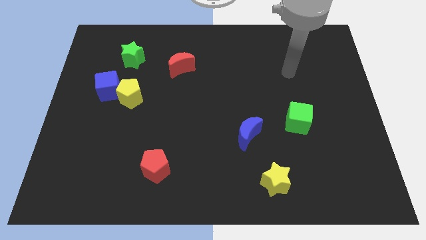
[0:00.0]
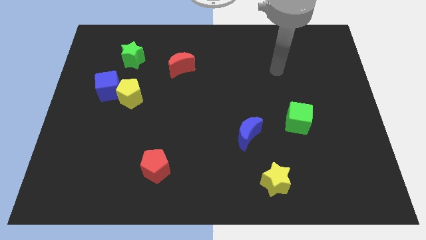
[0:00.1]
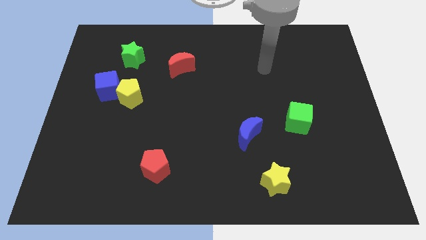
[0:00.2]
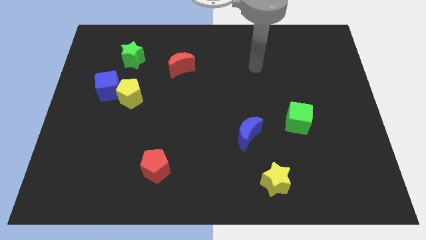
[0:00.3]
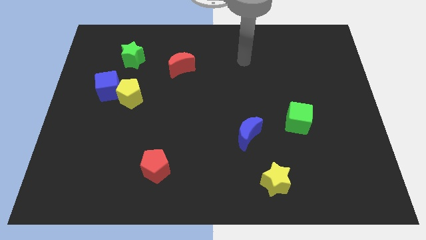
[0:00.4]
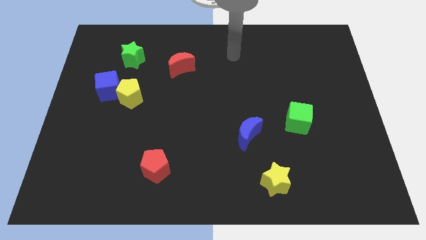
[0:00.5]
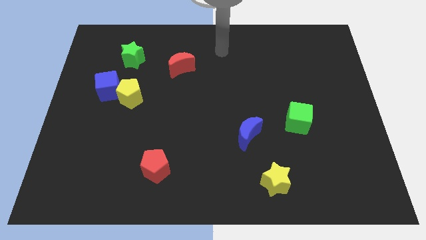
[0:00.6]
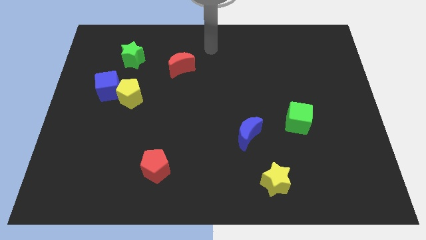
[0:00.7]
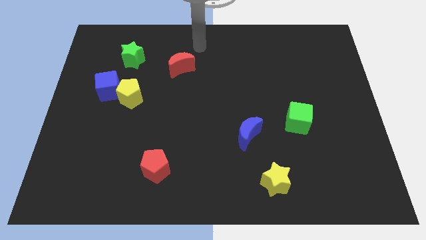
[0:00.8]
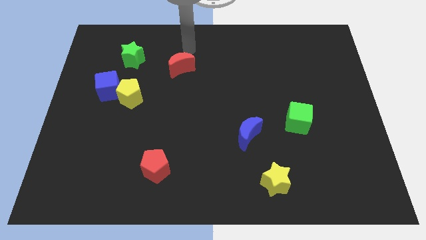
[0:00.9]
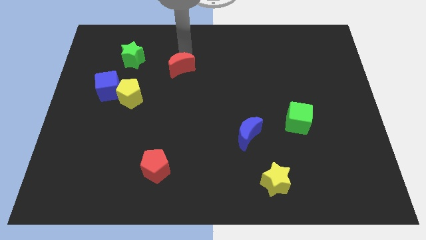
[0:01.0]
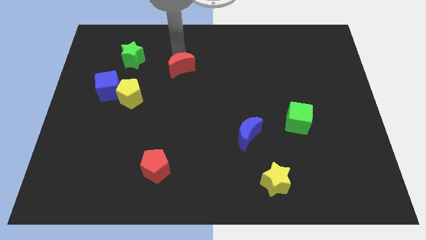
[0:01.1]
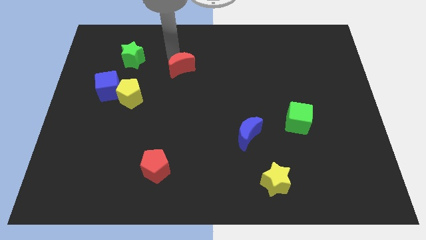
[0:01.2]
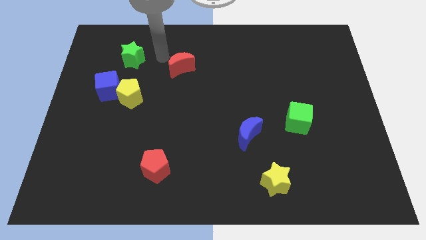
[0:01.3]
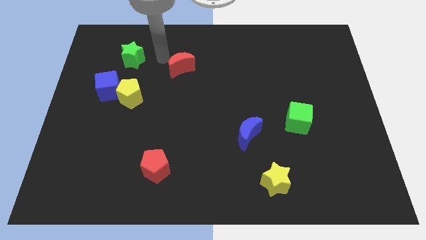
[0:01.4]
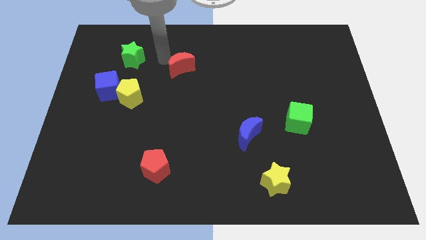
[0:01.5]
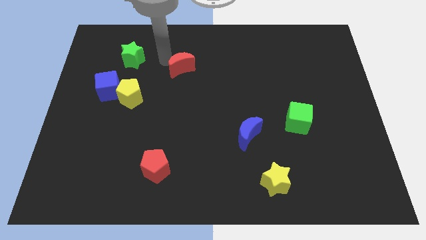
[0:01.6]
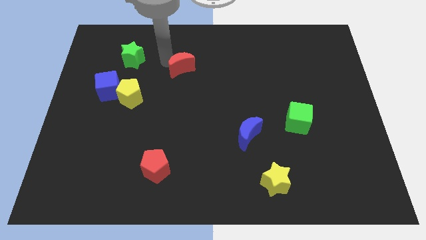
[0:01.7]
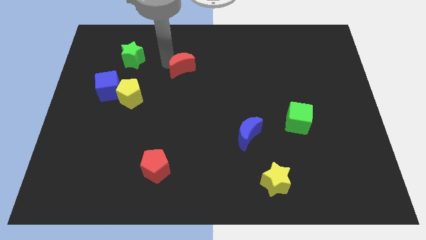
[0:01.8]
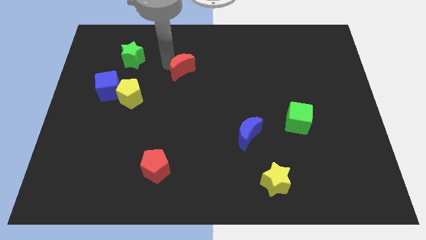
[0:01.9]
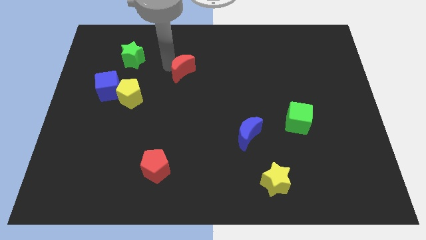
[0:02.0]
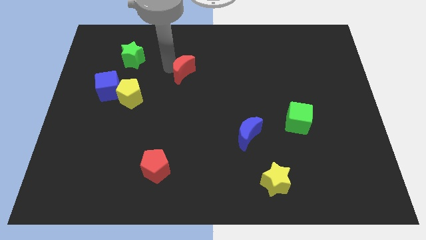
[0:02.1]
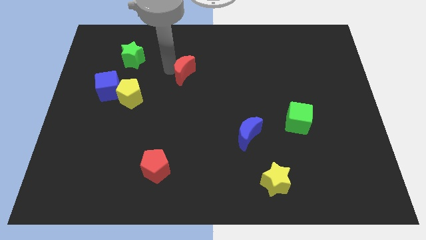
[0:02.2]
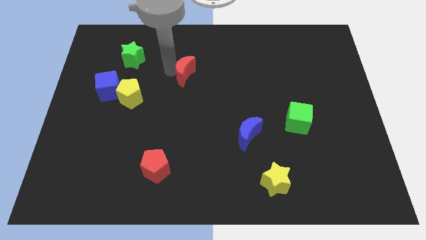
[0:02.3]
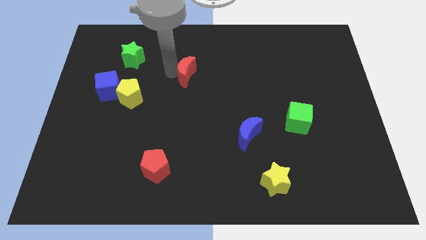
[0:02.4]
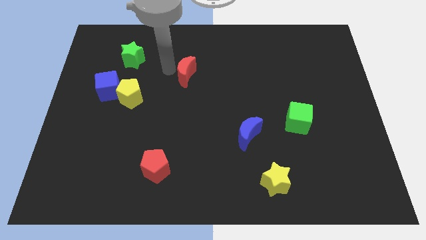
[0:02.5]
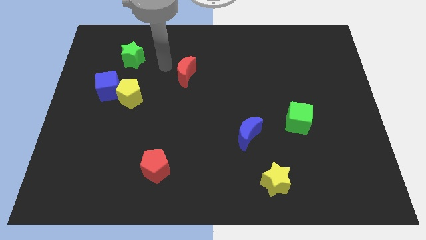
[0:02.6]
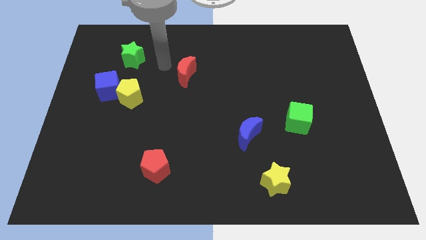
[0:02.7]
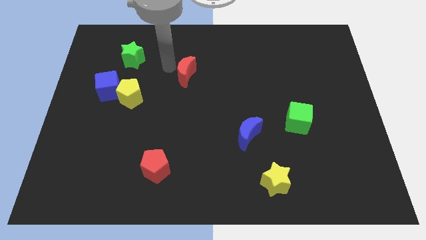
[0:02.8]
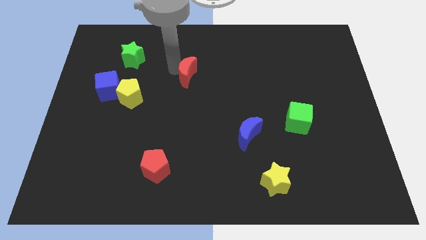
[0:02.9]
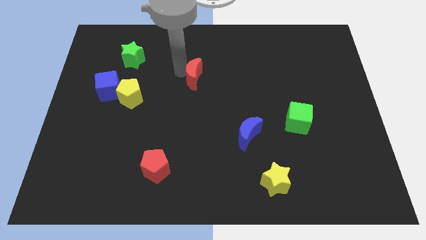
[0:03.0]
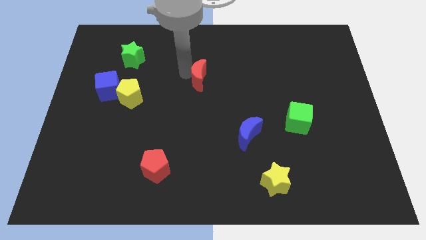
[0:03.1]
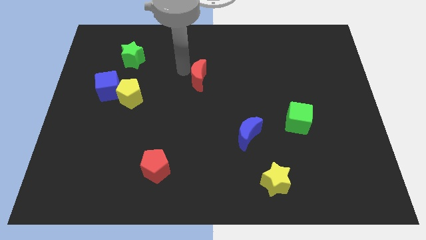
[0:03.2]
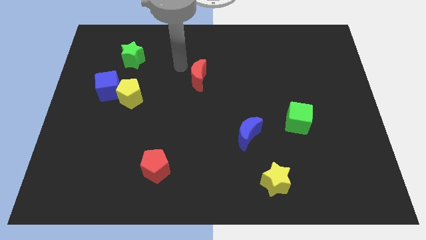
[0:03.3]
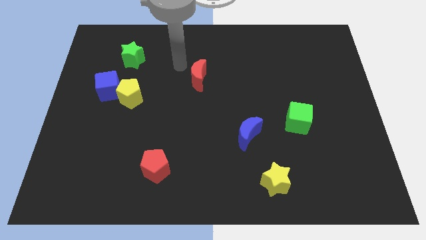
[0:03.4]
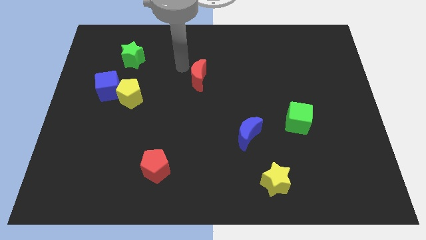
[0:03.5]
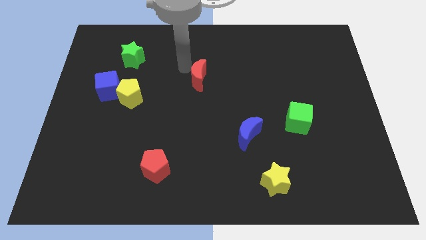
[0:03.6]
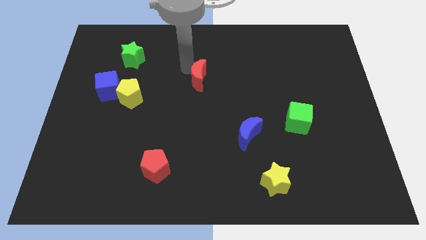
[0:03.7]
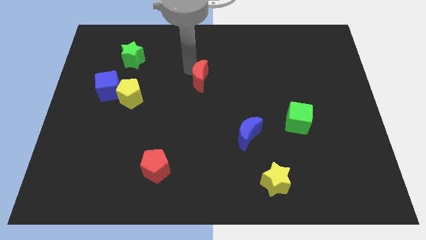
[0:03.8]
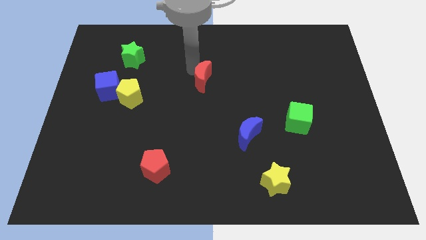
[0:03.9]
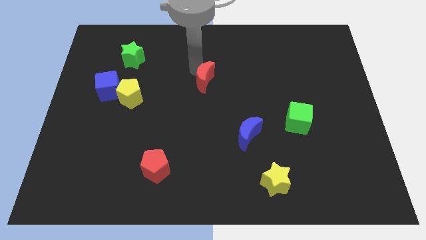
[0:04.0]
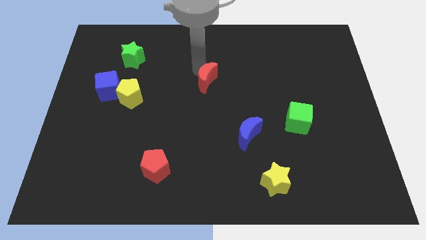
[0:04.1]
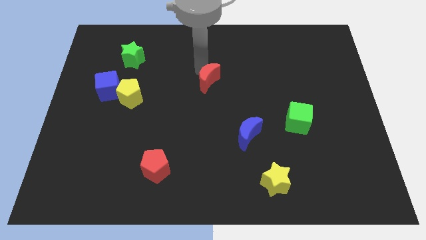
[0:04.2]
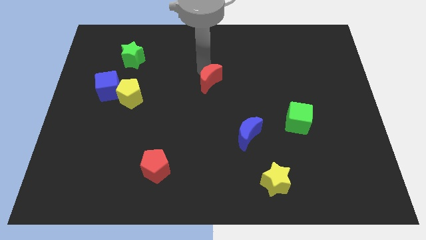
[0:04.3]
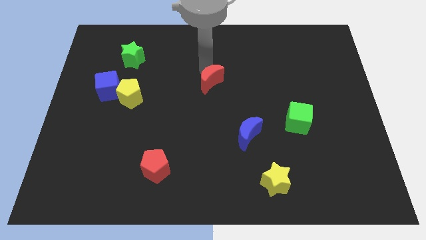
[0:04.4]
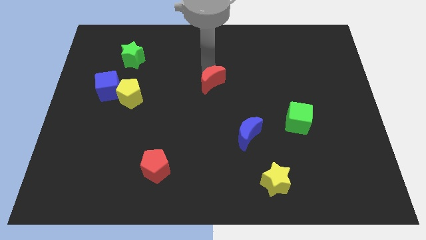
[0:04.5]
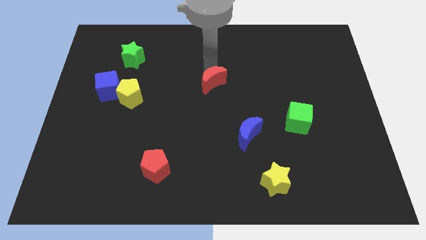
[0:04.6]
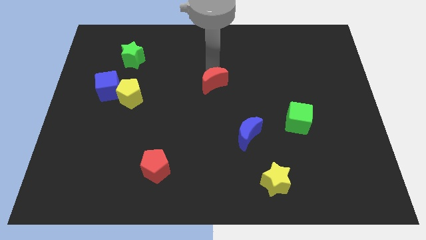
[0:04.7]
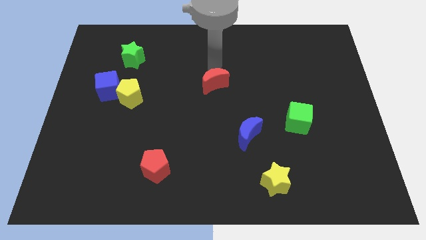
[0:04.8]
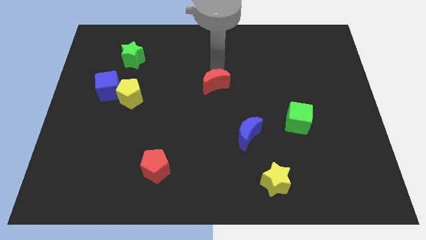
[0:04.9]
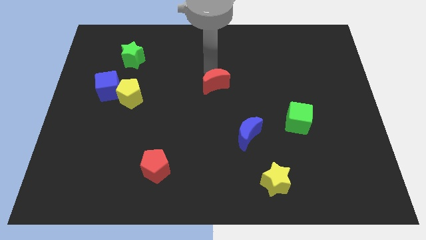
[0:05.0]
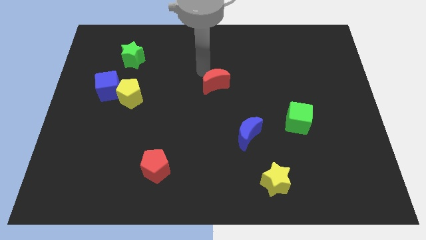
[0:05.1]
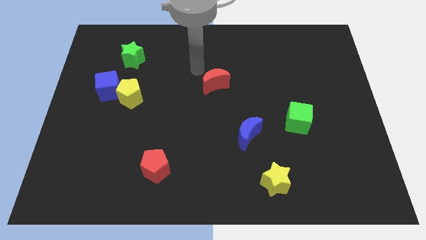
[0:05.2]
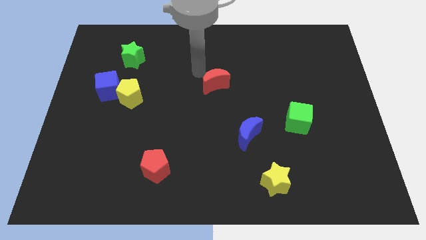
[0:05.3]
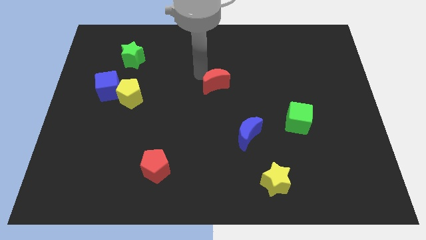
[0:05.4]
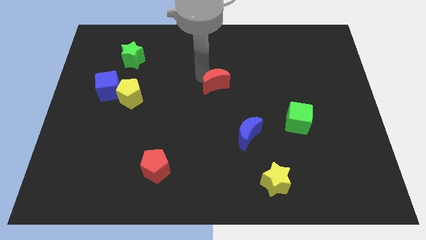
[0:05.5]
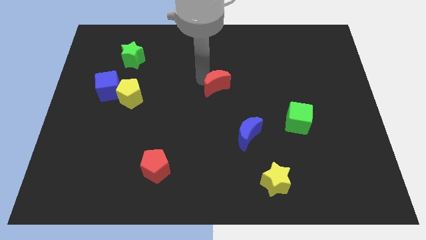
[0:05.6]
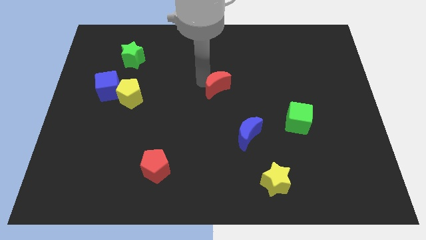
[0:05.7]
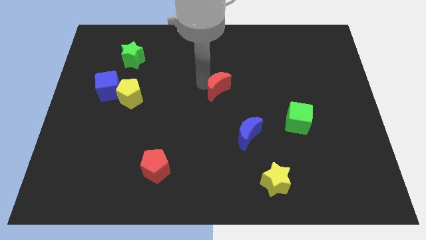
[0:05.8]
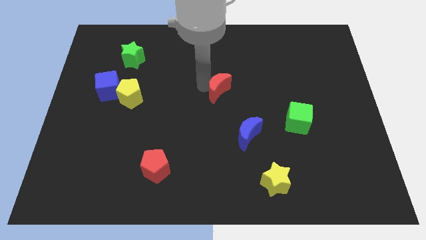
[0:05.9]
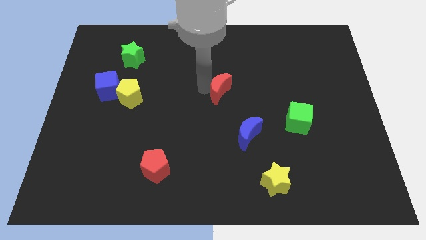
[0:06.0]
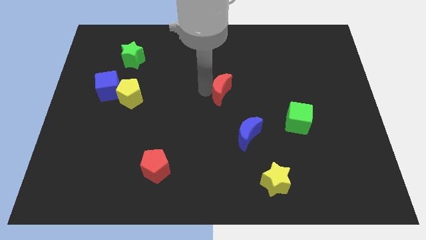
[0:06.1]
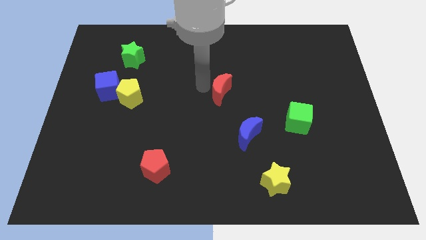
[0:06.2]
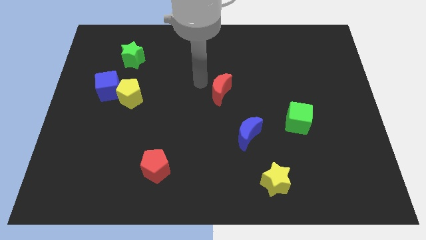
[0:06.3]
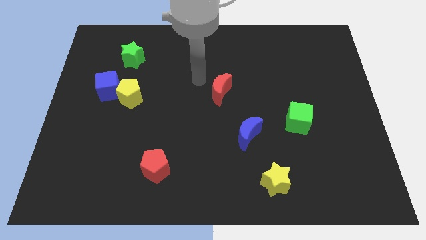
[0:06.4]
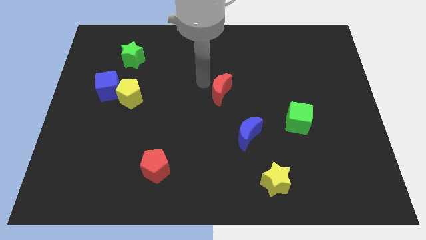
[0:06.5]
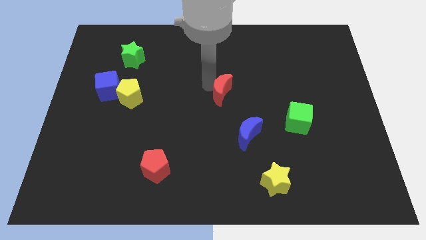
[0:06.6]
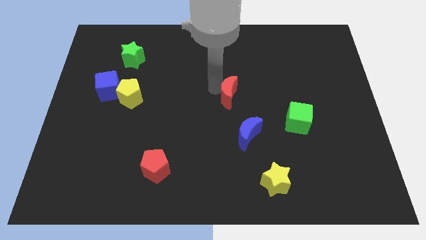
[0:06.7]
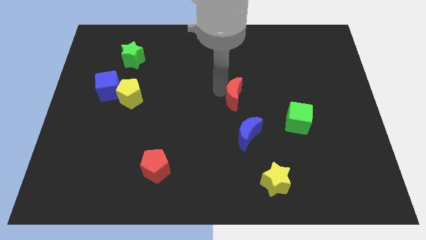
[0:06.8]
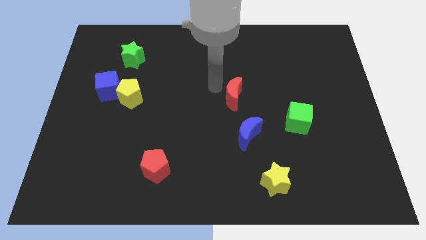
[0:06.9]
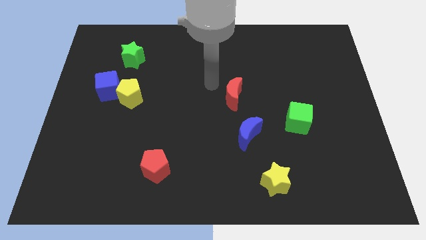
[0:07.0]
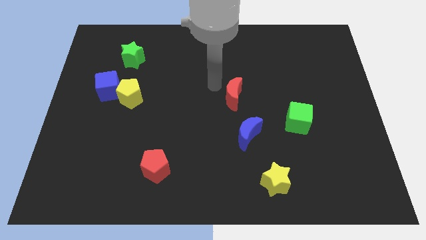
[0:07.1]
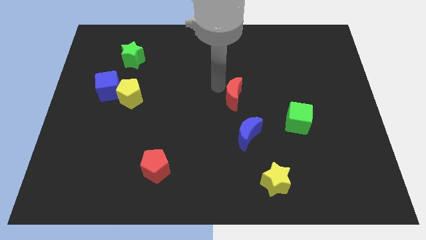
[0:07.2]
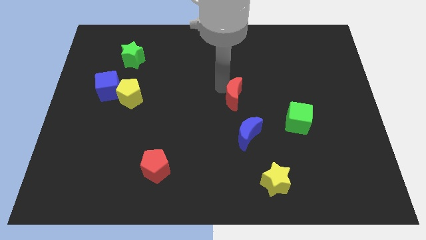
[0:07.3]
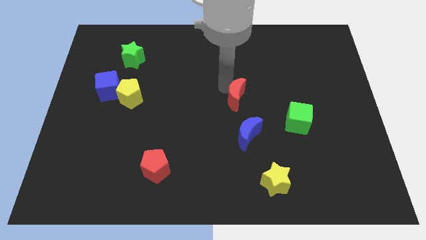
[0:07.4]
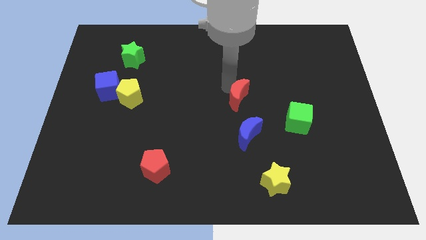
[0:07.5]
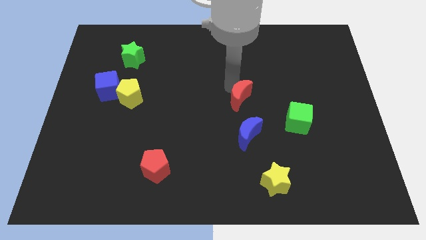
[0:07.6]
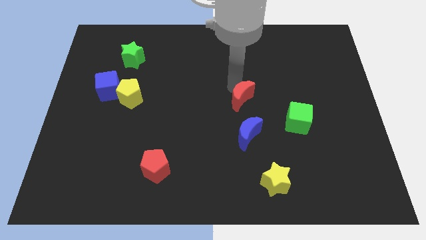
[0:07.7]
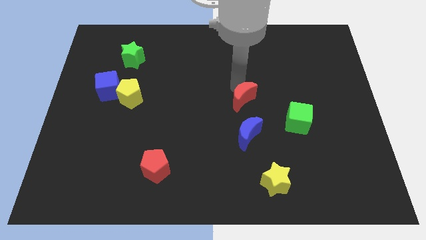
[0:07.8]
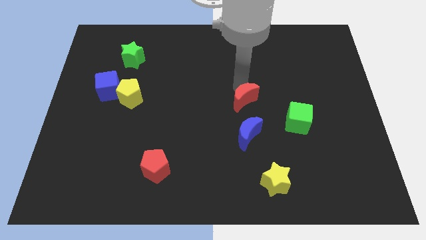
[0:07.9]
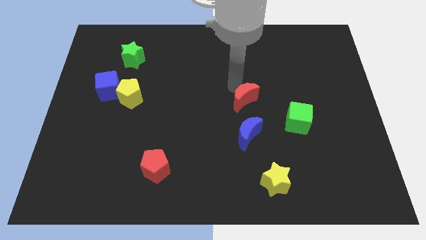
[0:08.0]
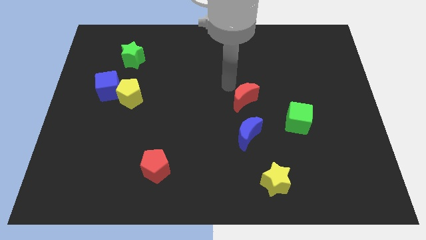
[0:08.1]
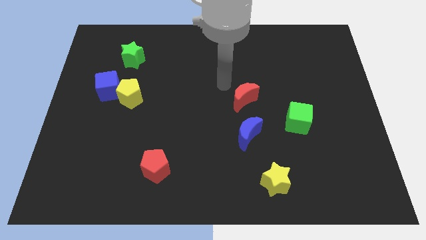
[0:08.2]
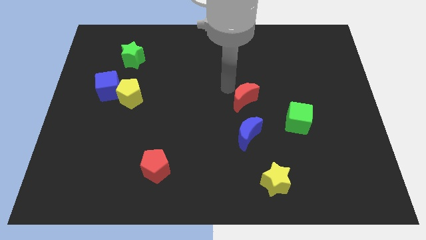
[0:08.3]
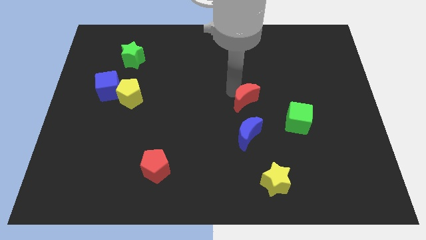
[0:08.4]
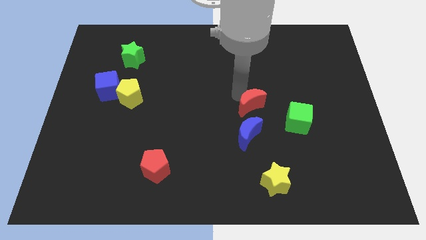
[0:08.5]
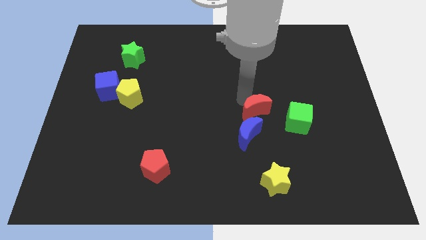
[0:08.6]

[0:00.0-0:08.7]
move the red moon to the top right side of the blue moon
